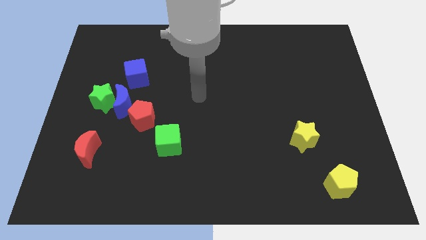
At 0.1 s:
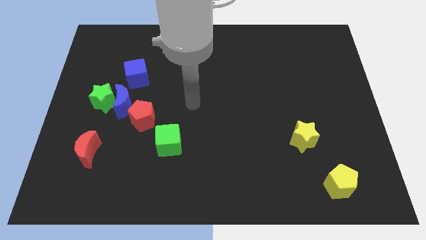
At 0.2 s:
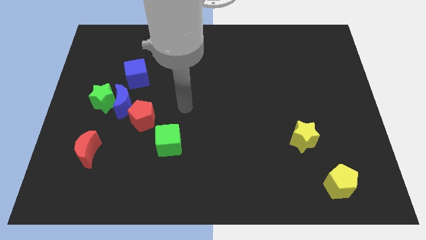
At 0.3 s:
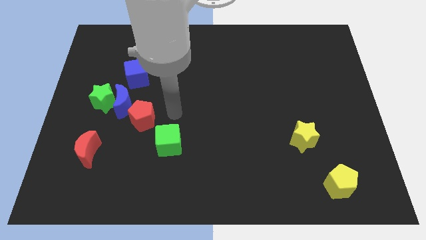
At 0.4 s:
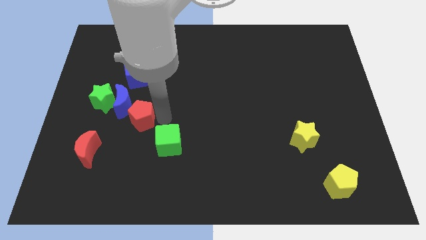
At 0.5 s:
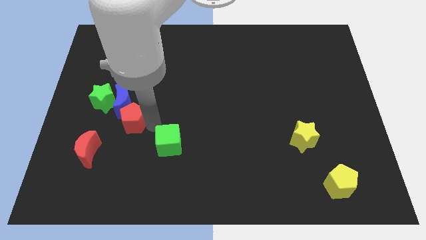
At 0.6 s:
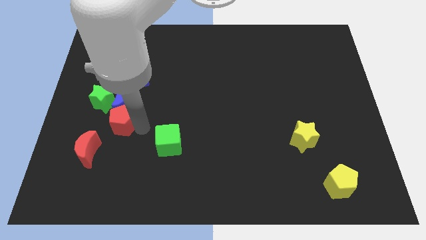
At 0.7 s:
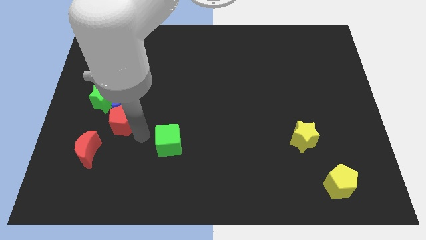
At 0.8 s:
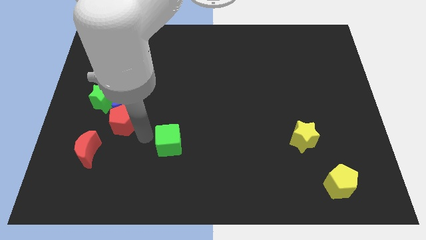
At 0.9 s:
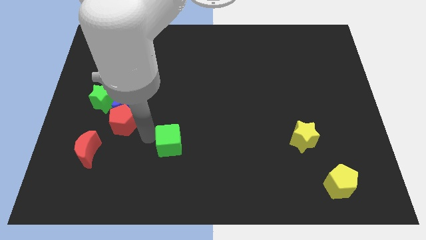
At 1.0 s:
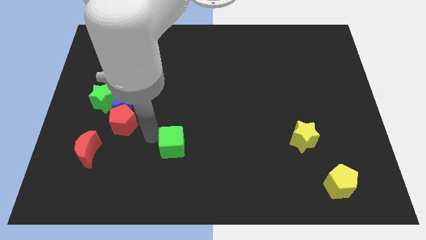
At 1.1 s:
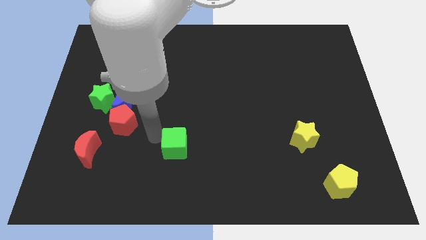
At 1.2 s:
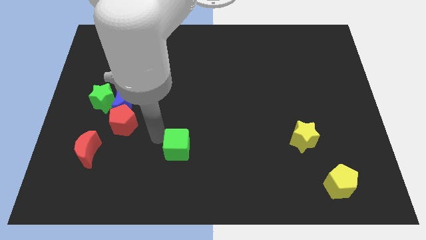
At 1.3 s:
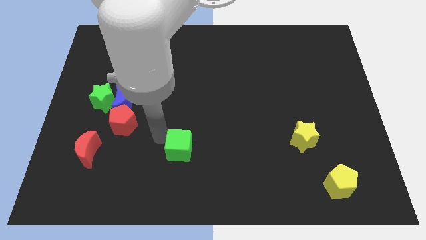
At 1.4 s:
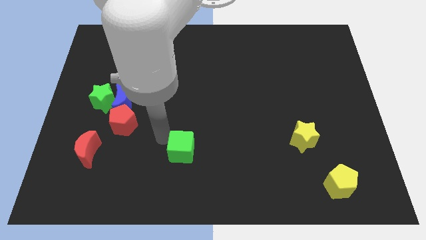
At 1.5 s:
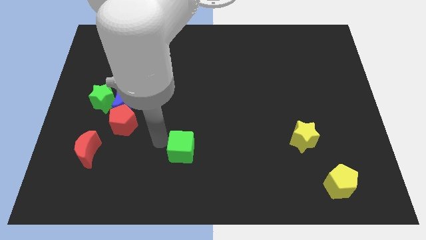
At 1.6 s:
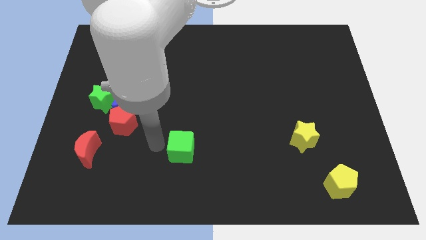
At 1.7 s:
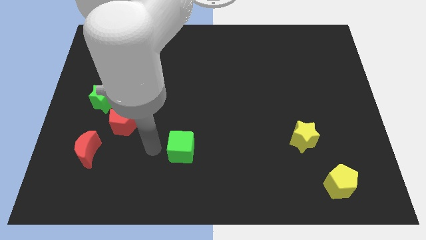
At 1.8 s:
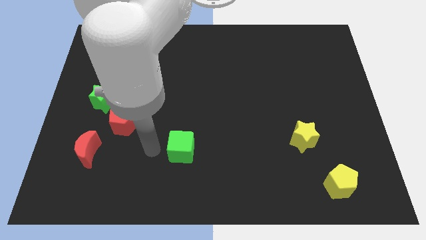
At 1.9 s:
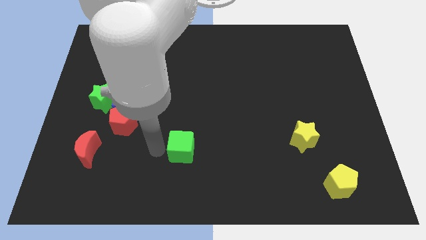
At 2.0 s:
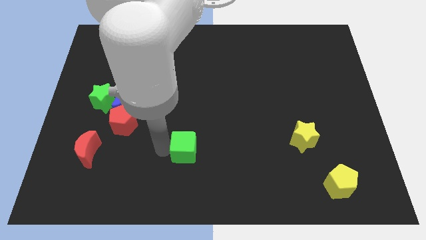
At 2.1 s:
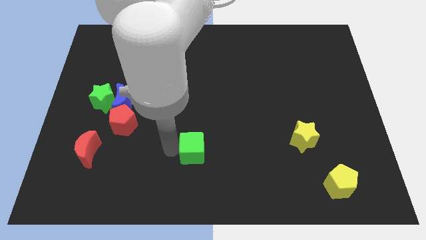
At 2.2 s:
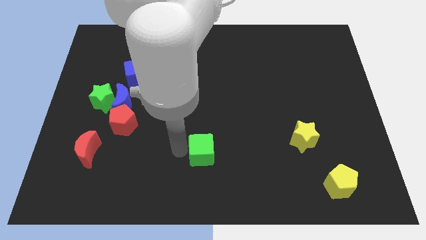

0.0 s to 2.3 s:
move the green cube a little right

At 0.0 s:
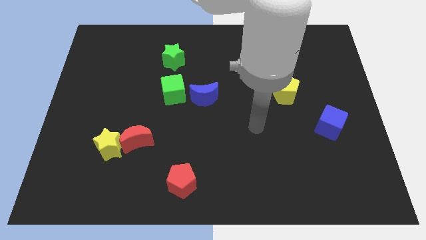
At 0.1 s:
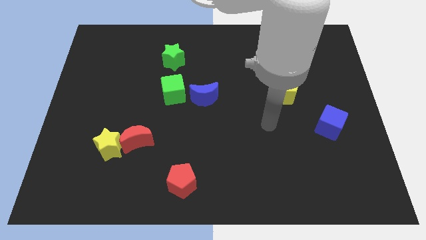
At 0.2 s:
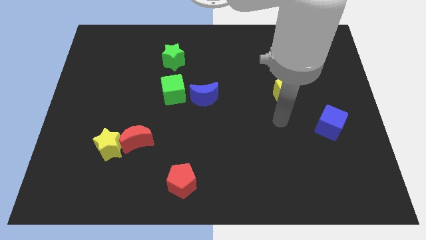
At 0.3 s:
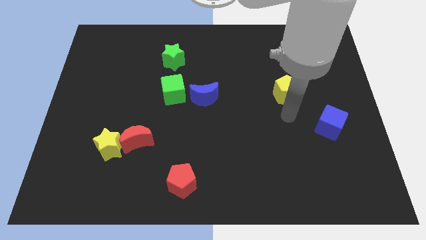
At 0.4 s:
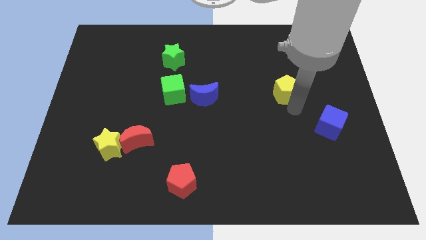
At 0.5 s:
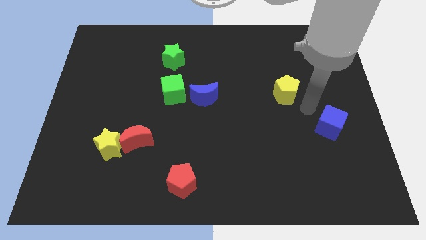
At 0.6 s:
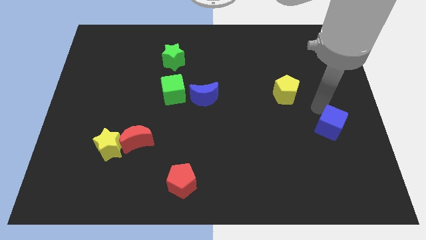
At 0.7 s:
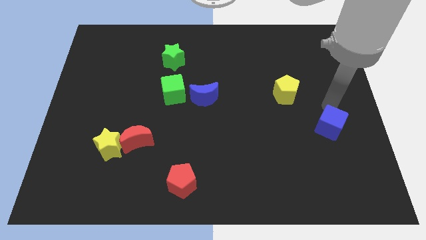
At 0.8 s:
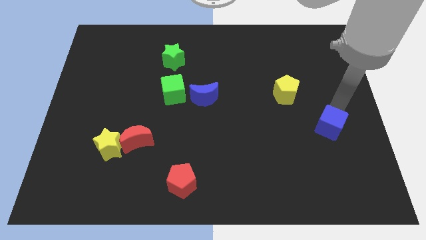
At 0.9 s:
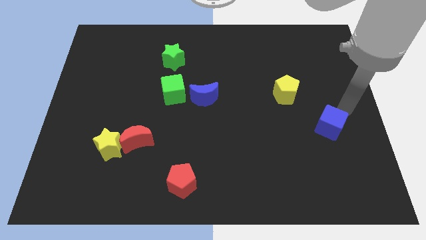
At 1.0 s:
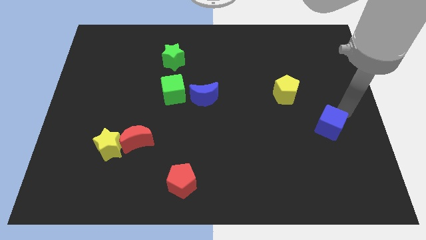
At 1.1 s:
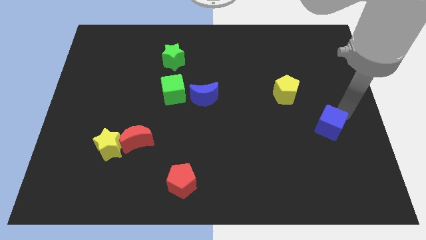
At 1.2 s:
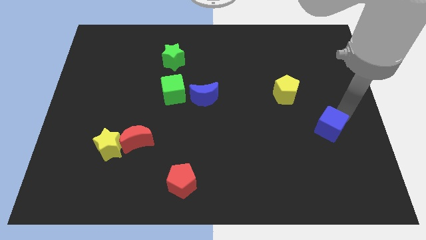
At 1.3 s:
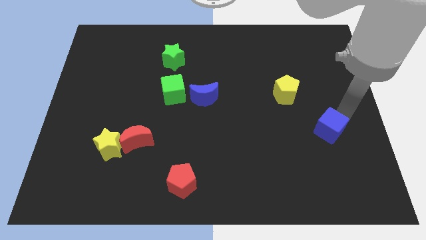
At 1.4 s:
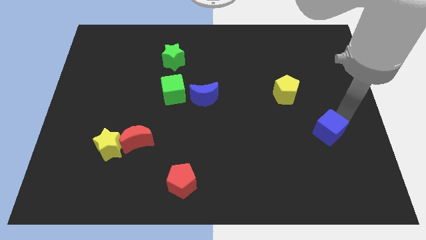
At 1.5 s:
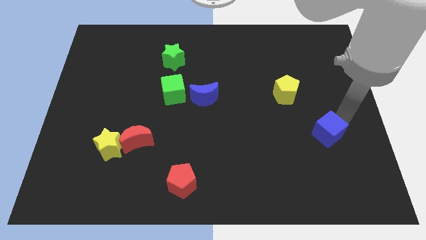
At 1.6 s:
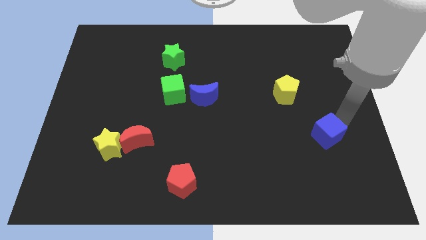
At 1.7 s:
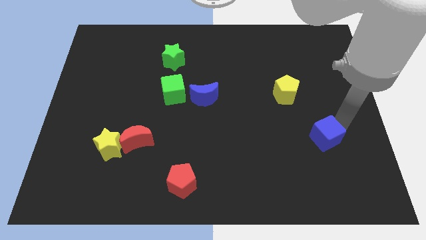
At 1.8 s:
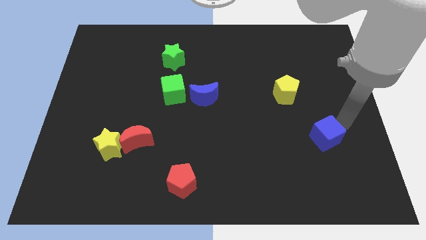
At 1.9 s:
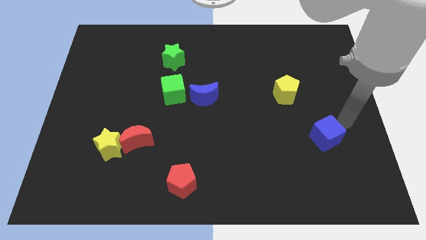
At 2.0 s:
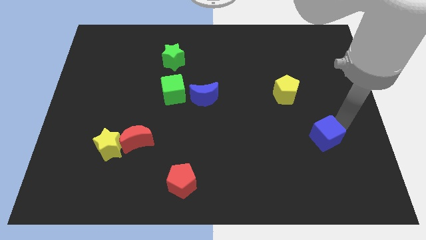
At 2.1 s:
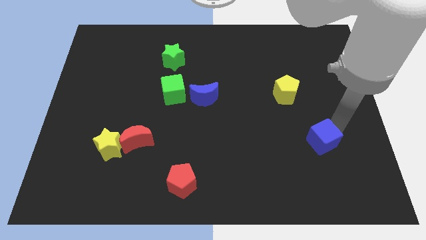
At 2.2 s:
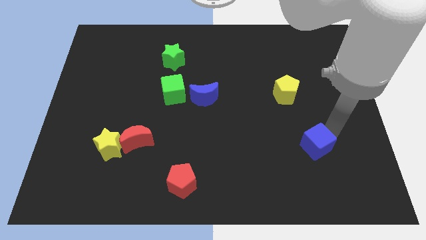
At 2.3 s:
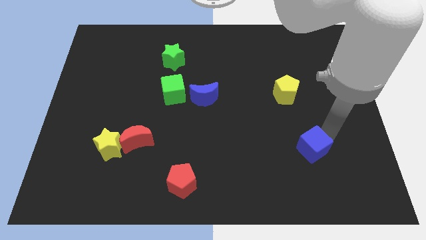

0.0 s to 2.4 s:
slightly slide the blue cube downwards and then left

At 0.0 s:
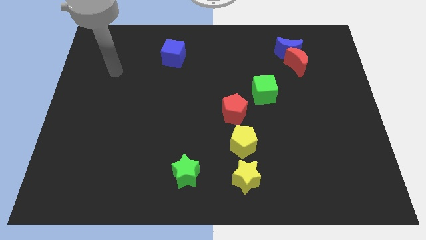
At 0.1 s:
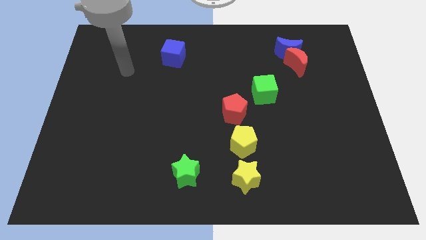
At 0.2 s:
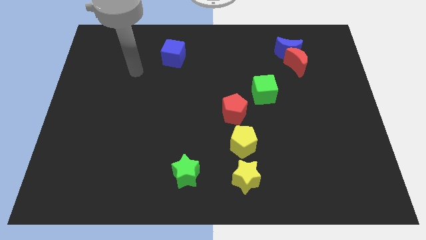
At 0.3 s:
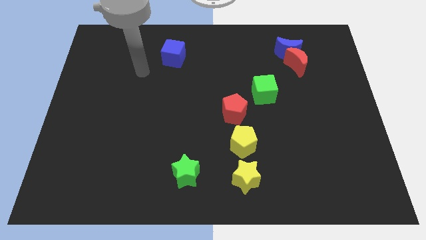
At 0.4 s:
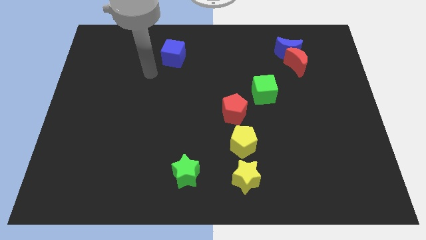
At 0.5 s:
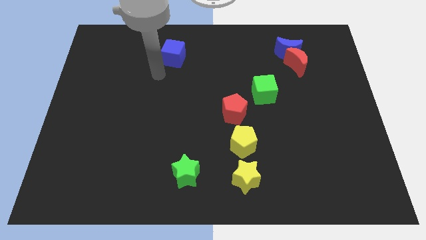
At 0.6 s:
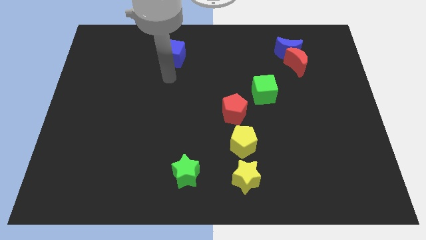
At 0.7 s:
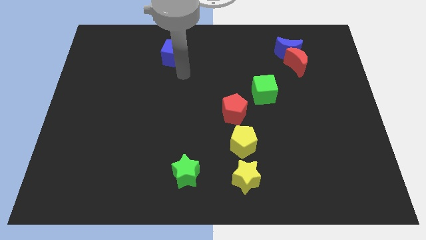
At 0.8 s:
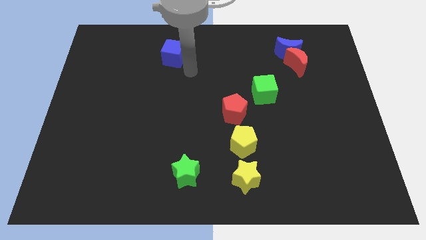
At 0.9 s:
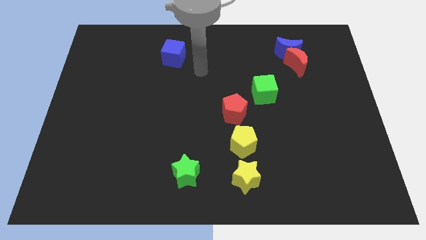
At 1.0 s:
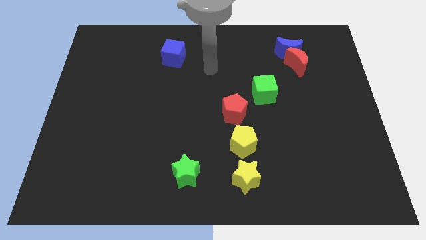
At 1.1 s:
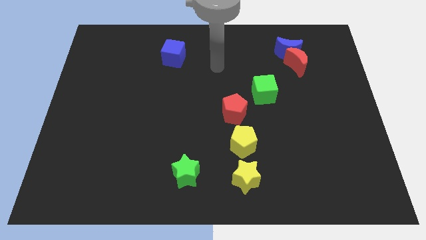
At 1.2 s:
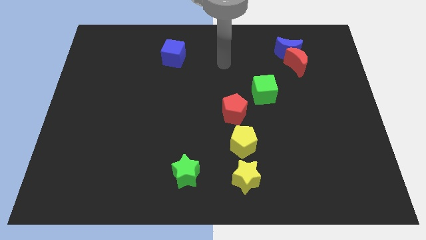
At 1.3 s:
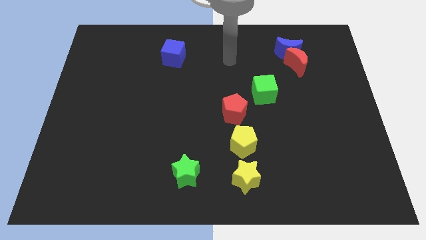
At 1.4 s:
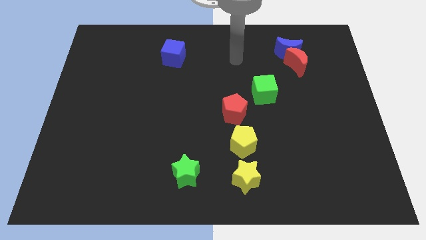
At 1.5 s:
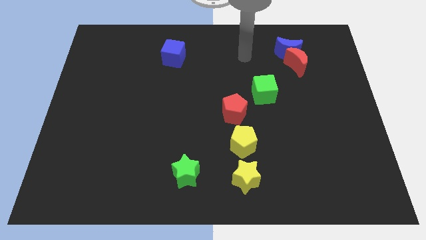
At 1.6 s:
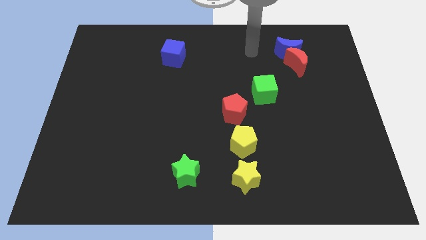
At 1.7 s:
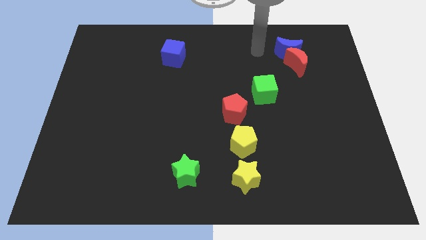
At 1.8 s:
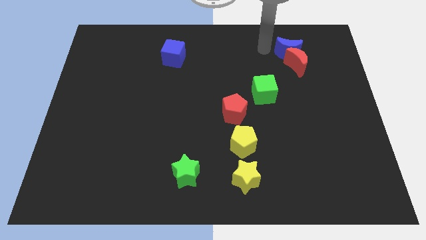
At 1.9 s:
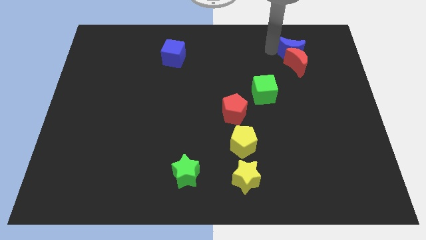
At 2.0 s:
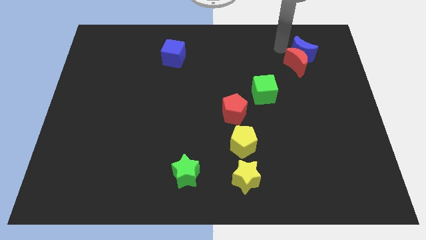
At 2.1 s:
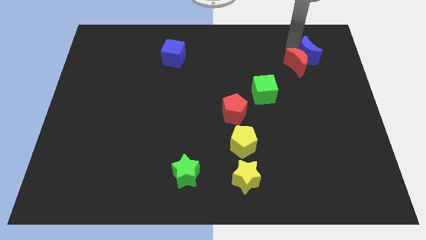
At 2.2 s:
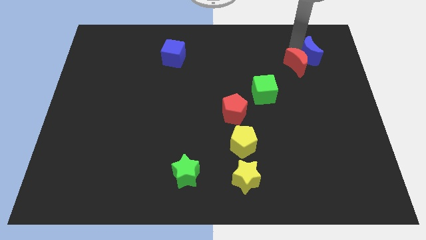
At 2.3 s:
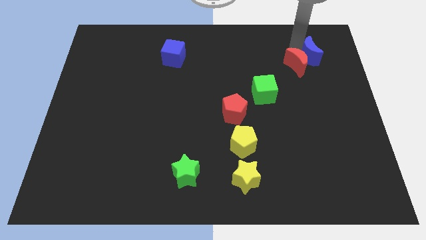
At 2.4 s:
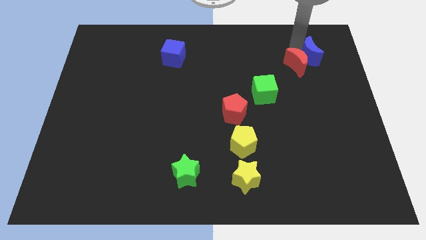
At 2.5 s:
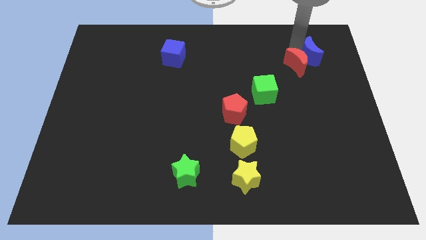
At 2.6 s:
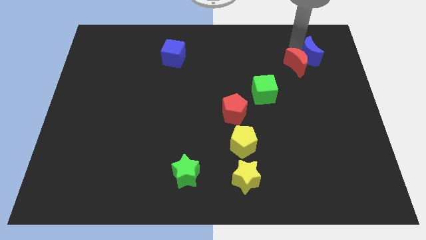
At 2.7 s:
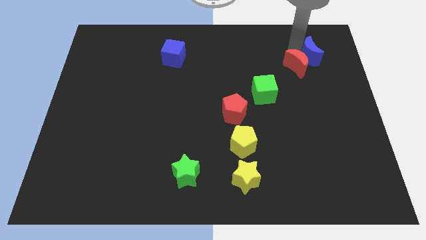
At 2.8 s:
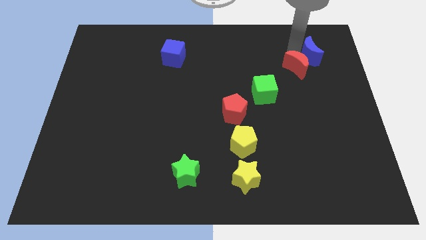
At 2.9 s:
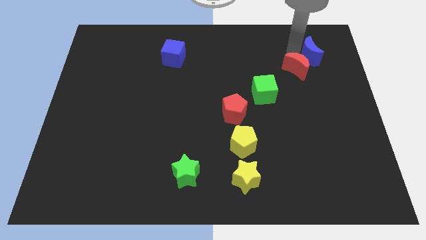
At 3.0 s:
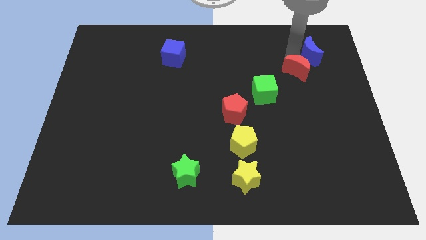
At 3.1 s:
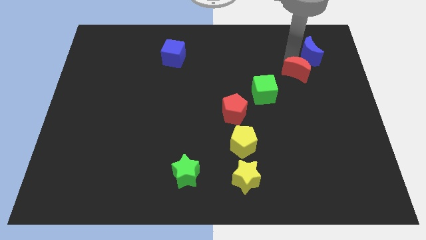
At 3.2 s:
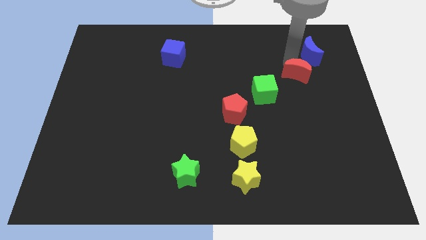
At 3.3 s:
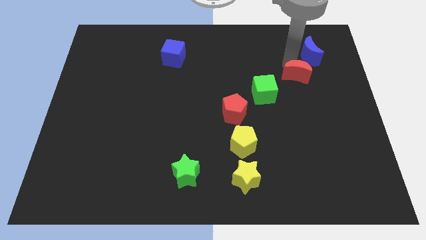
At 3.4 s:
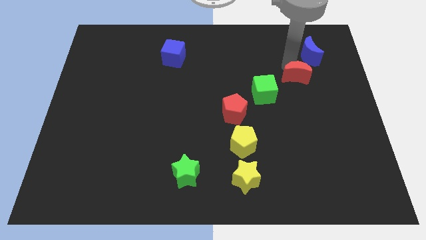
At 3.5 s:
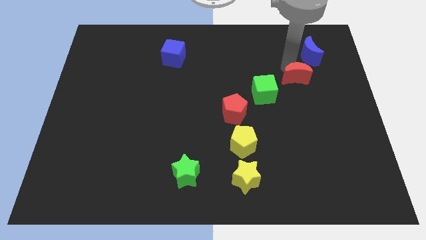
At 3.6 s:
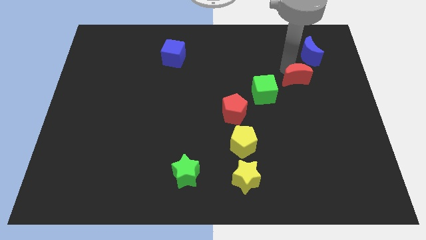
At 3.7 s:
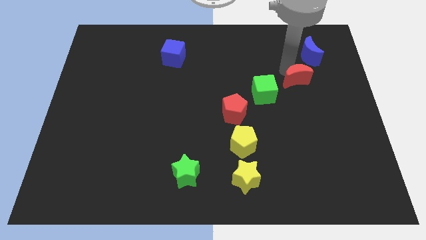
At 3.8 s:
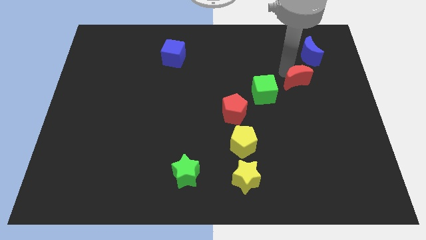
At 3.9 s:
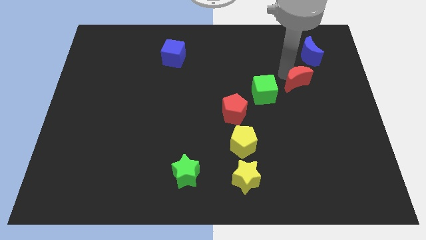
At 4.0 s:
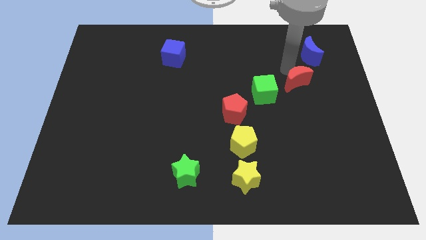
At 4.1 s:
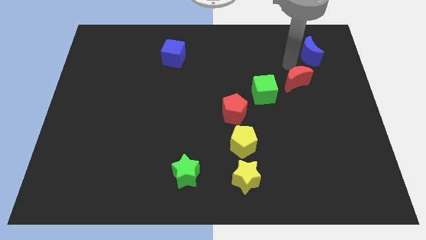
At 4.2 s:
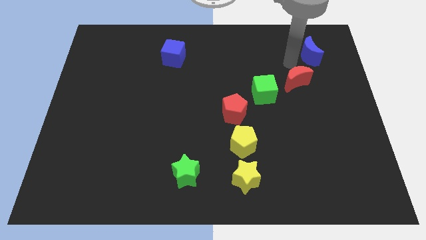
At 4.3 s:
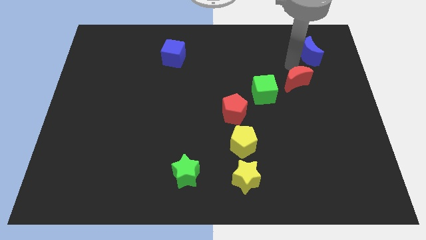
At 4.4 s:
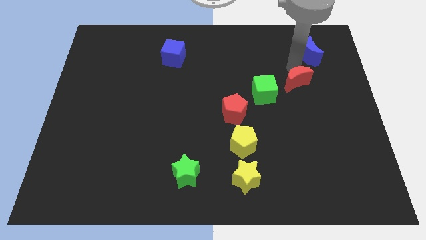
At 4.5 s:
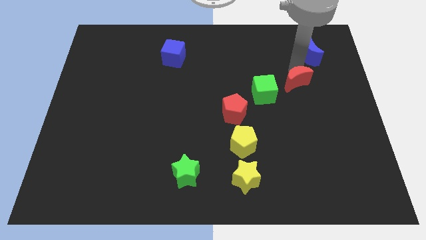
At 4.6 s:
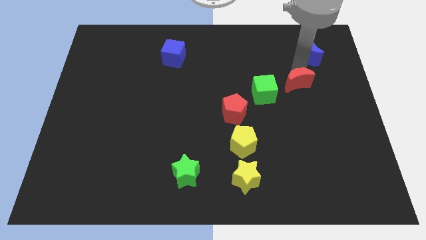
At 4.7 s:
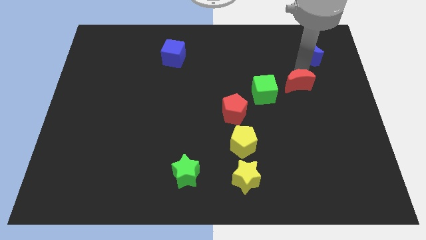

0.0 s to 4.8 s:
slightly push the red moon downwards
